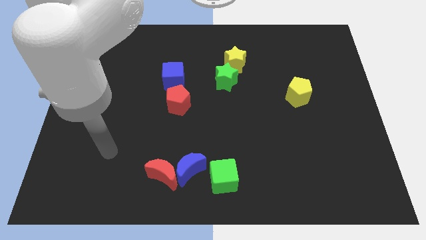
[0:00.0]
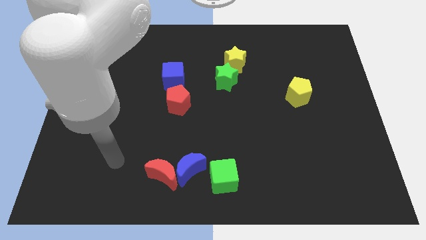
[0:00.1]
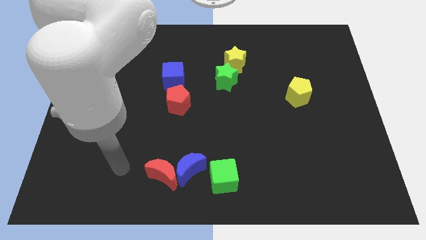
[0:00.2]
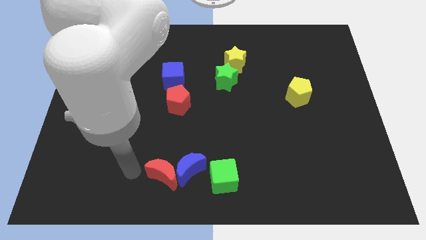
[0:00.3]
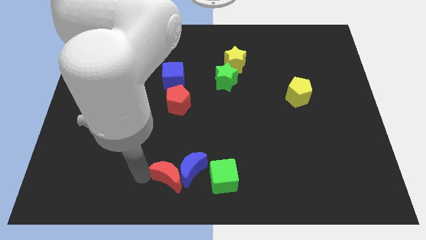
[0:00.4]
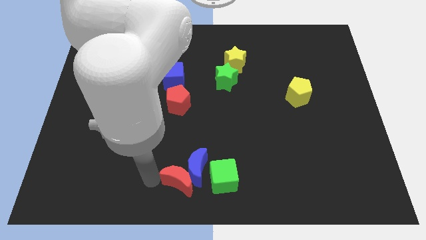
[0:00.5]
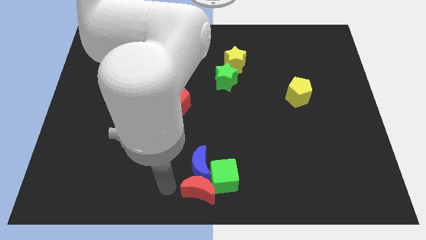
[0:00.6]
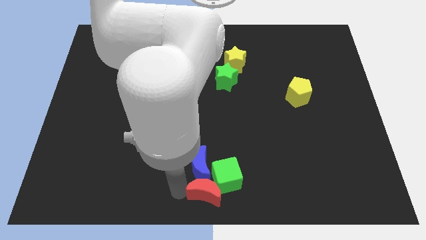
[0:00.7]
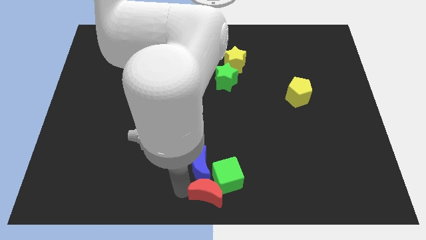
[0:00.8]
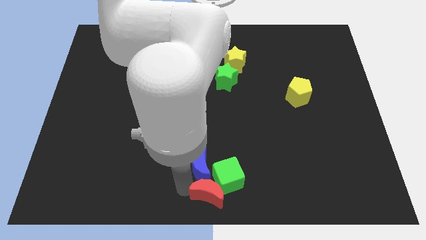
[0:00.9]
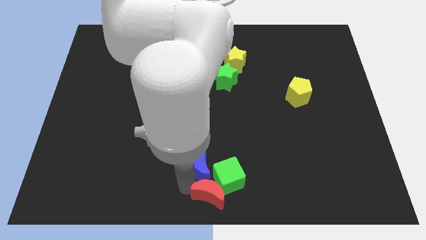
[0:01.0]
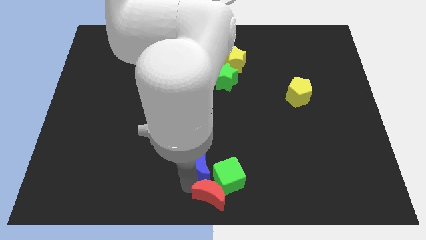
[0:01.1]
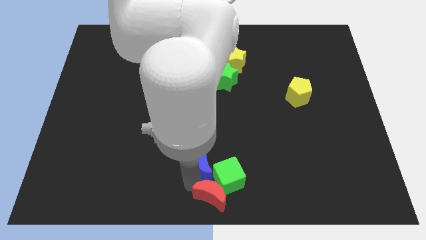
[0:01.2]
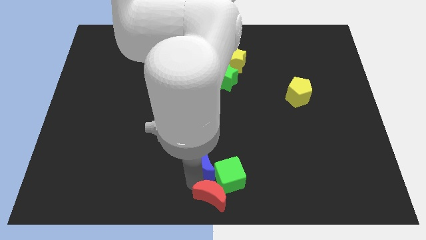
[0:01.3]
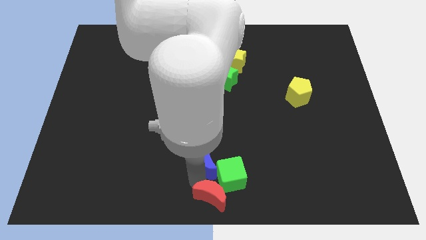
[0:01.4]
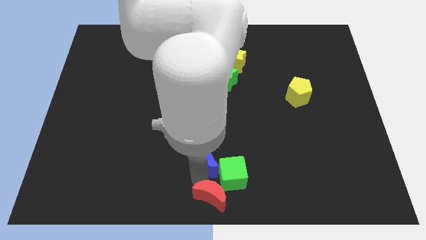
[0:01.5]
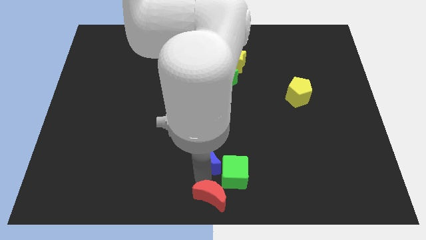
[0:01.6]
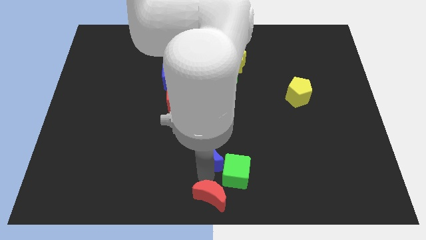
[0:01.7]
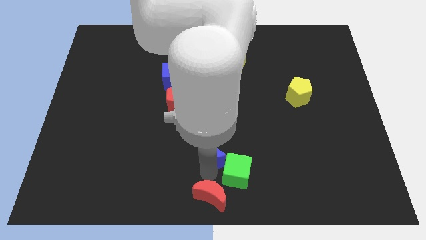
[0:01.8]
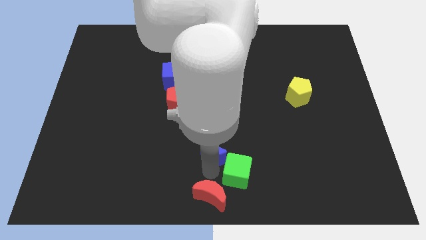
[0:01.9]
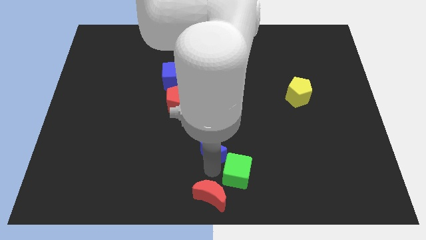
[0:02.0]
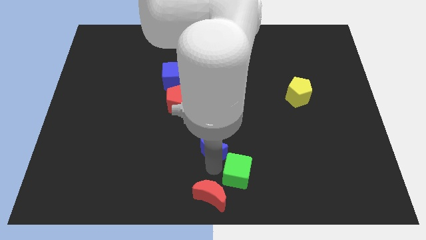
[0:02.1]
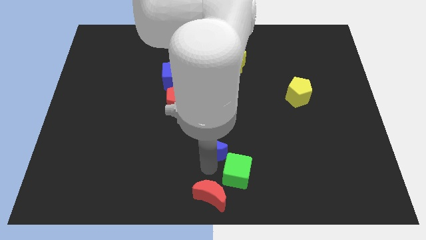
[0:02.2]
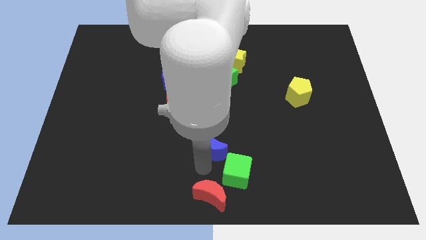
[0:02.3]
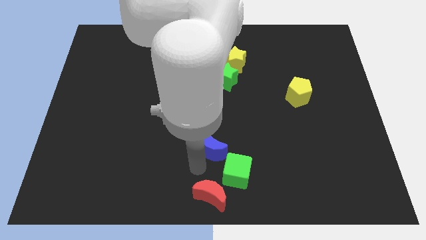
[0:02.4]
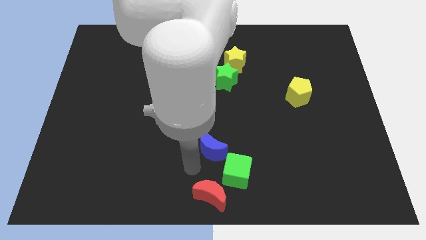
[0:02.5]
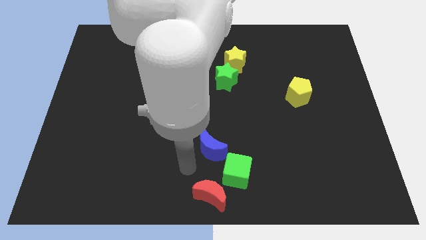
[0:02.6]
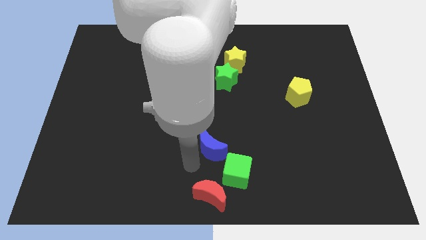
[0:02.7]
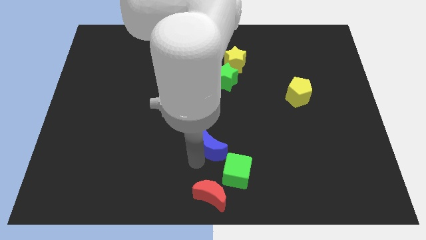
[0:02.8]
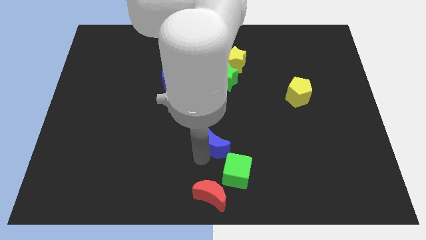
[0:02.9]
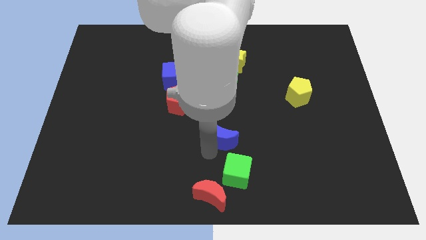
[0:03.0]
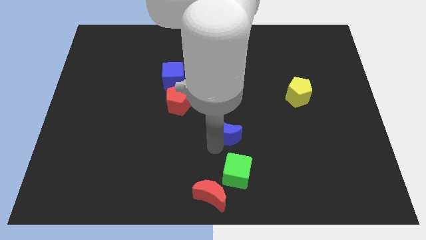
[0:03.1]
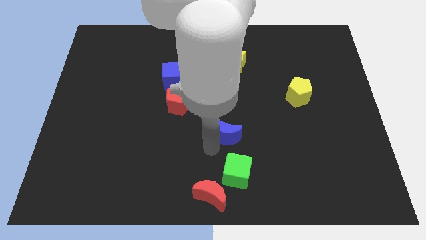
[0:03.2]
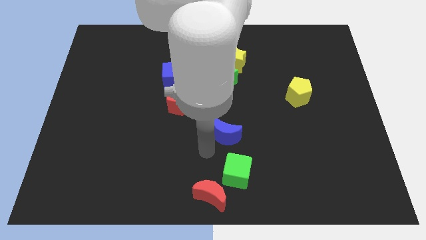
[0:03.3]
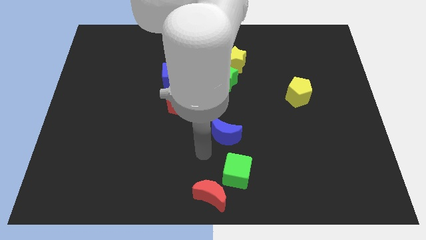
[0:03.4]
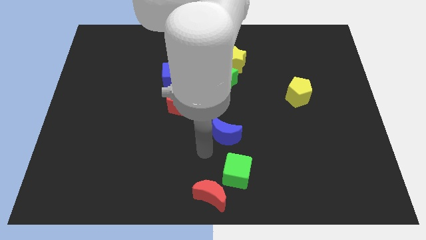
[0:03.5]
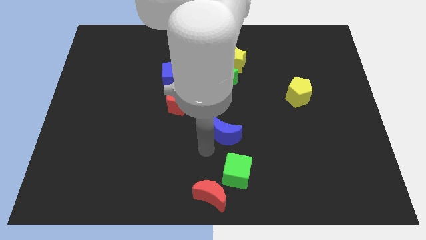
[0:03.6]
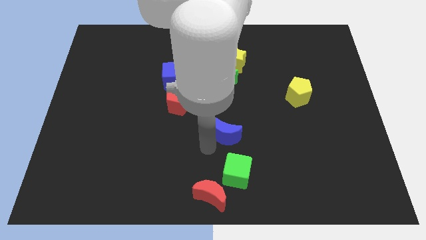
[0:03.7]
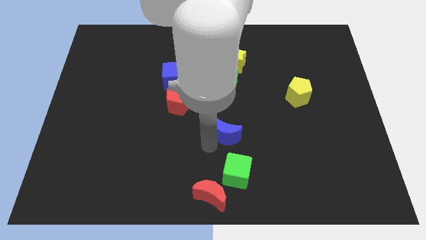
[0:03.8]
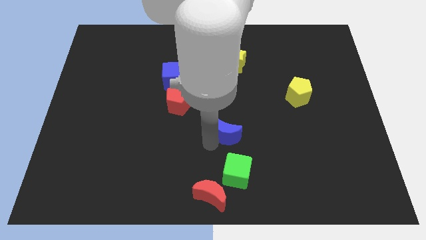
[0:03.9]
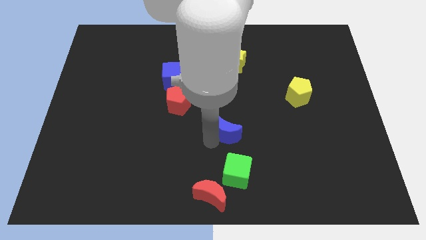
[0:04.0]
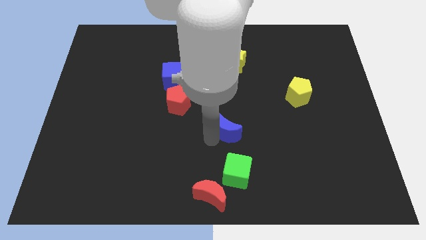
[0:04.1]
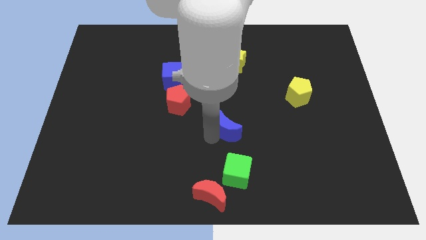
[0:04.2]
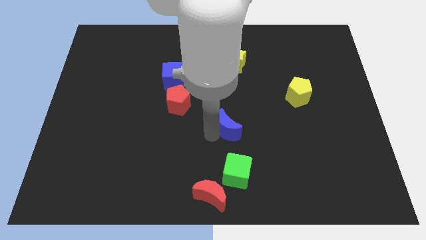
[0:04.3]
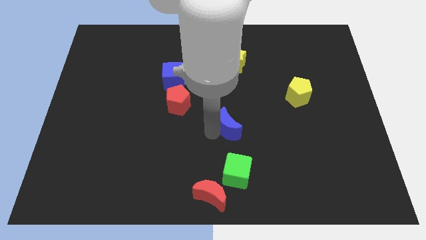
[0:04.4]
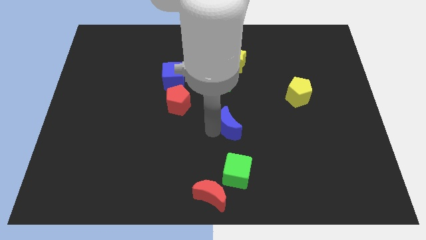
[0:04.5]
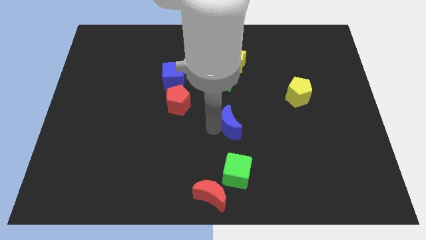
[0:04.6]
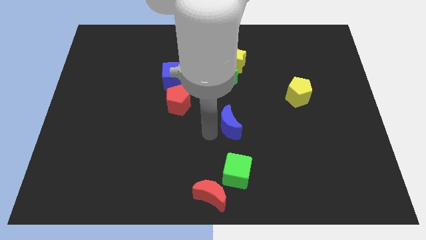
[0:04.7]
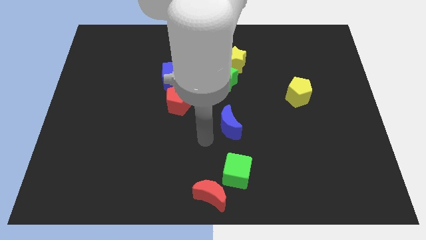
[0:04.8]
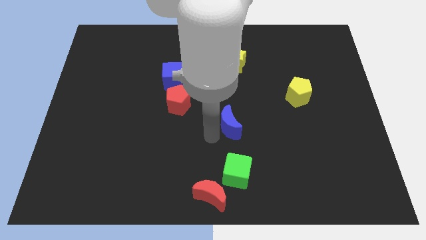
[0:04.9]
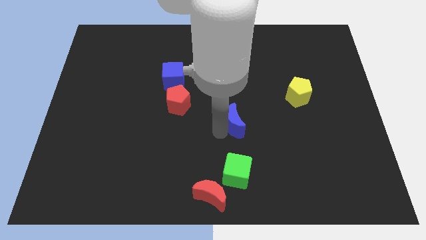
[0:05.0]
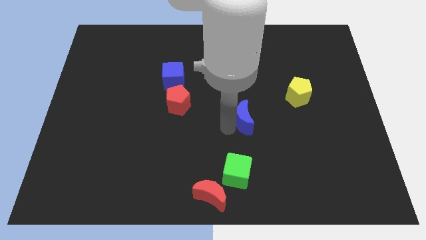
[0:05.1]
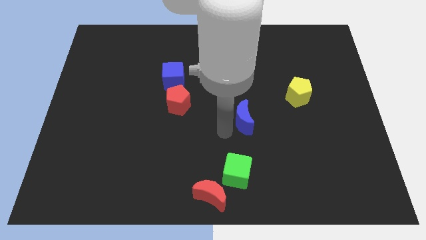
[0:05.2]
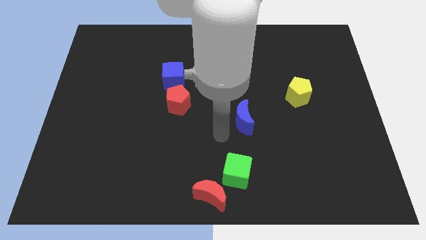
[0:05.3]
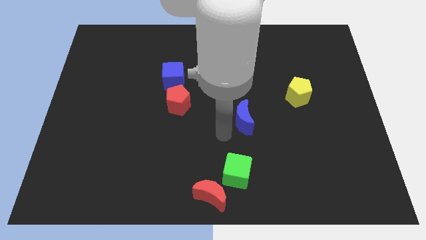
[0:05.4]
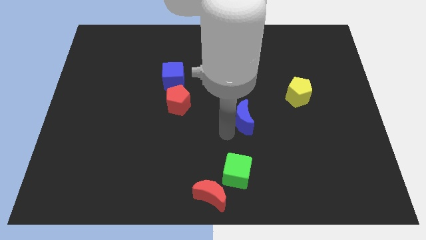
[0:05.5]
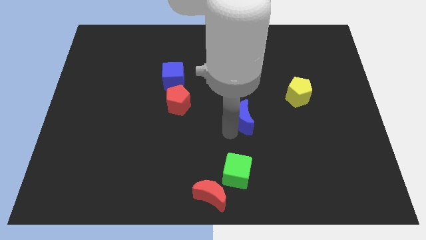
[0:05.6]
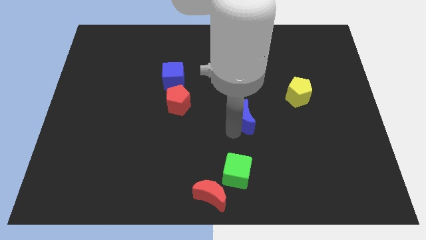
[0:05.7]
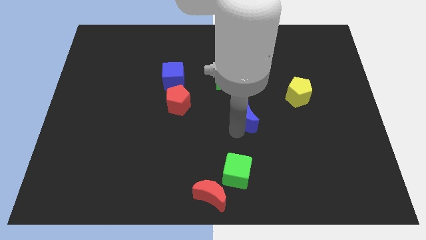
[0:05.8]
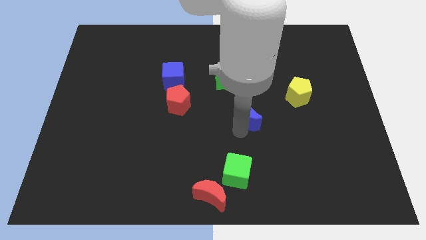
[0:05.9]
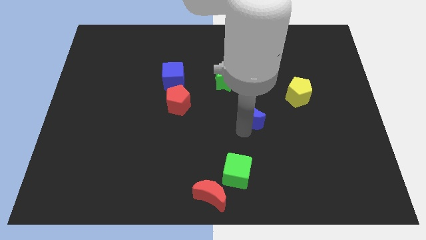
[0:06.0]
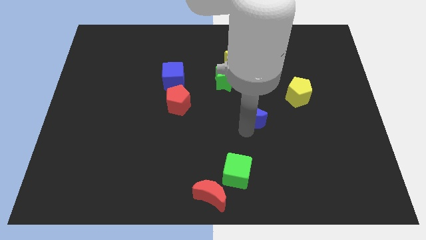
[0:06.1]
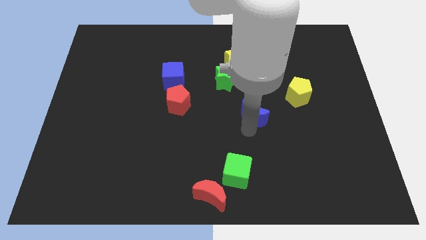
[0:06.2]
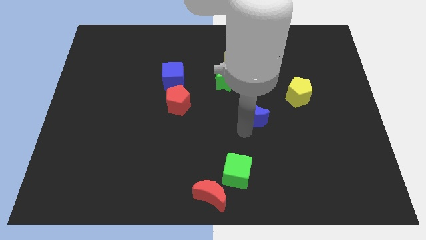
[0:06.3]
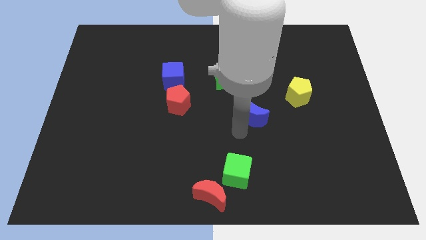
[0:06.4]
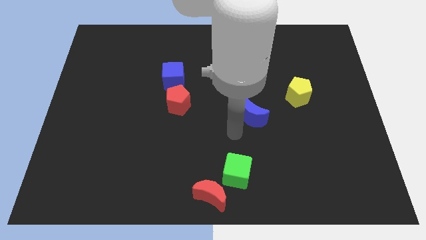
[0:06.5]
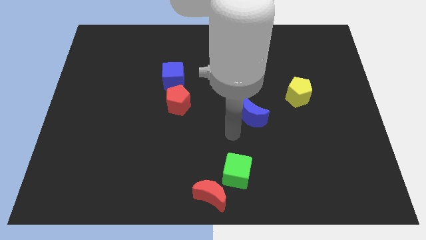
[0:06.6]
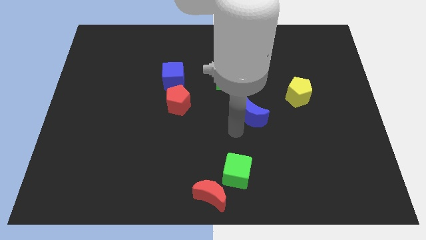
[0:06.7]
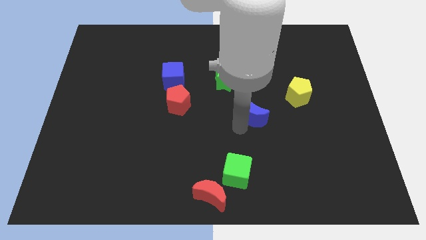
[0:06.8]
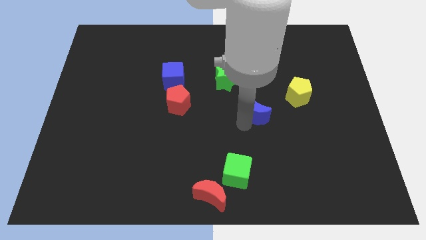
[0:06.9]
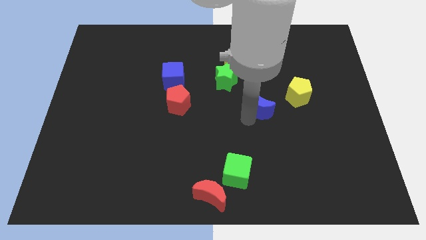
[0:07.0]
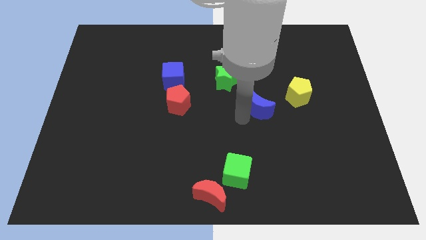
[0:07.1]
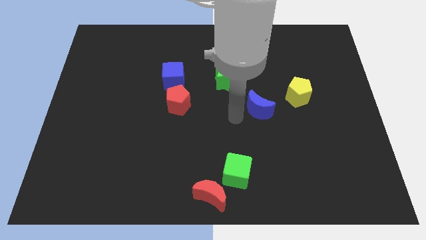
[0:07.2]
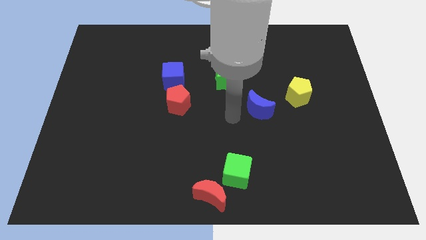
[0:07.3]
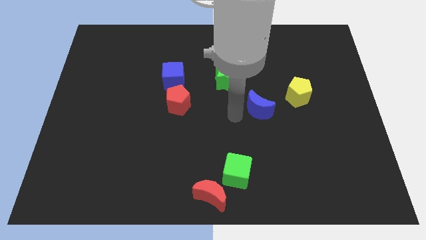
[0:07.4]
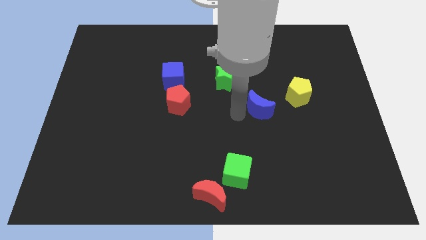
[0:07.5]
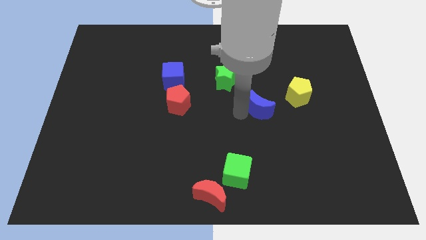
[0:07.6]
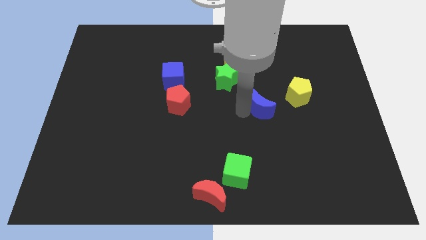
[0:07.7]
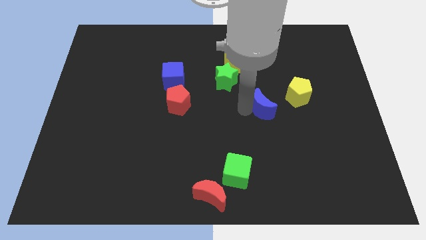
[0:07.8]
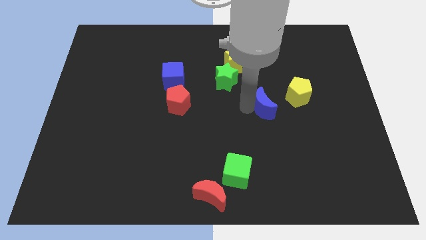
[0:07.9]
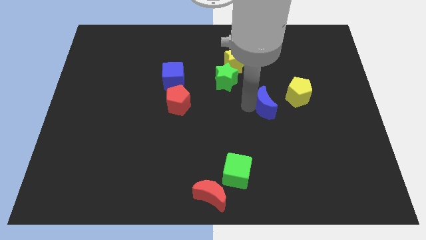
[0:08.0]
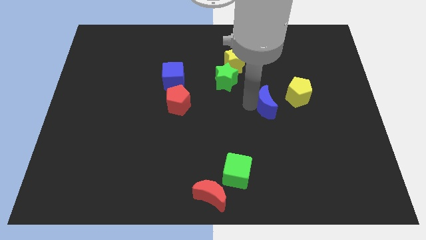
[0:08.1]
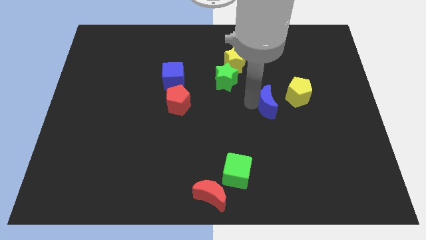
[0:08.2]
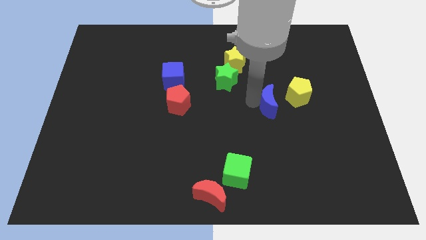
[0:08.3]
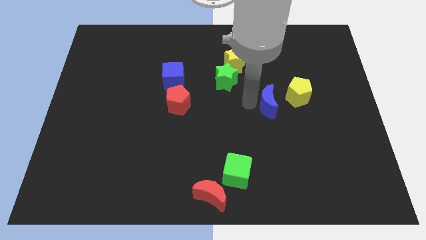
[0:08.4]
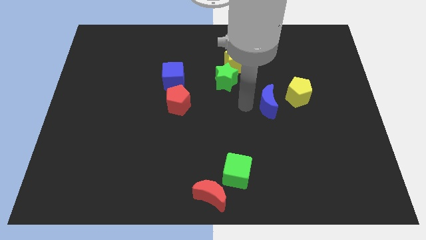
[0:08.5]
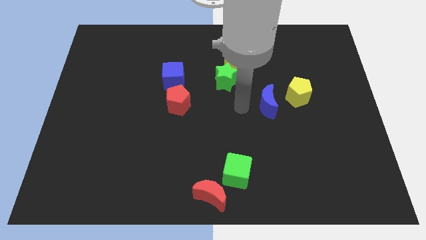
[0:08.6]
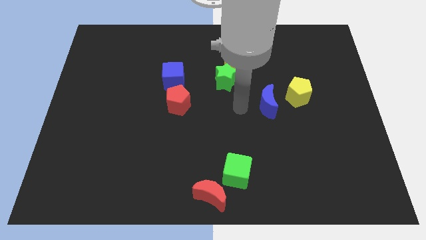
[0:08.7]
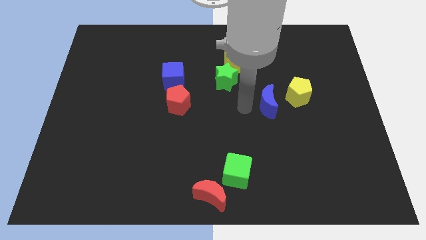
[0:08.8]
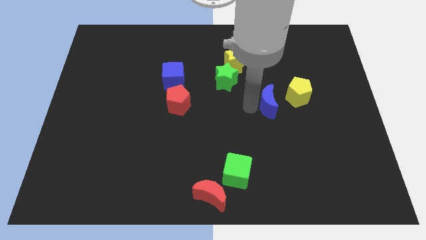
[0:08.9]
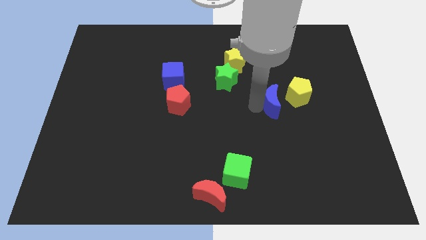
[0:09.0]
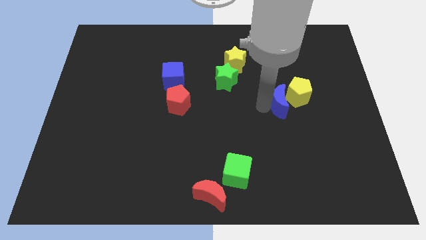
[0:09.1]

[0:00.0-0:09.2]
push the blue moon to the yellow pentagon
